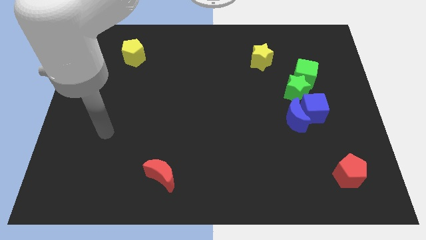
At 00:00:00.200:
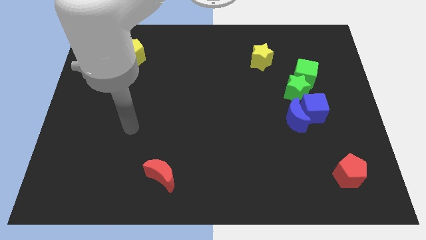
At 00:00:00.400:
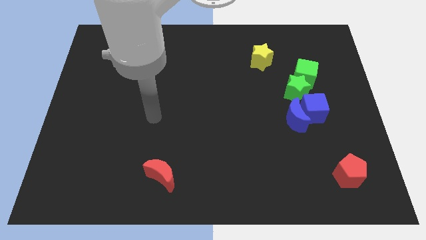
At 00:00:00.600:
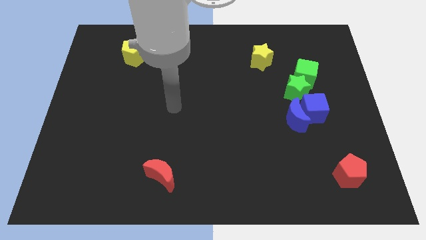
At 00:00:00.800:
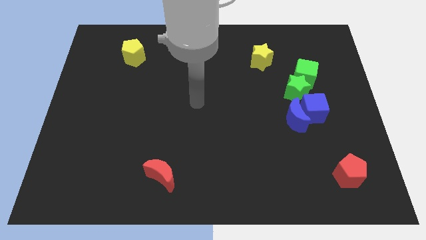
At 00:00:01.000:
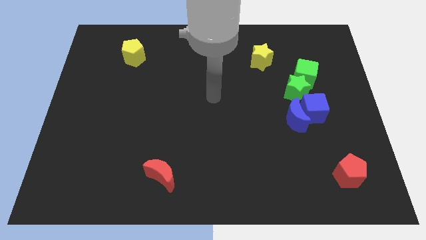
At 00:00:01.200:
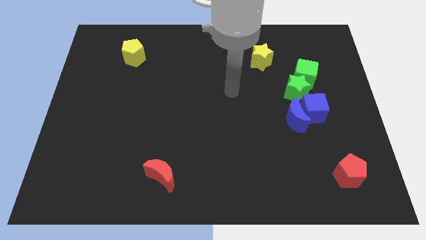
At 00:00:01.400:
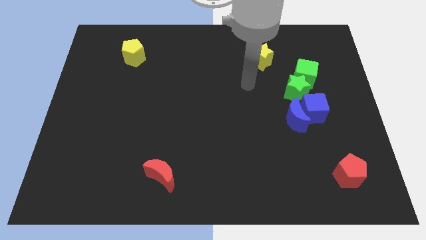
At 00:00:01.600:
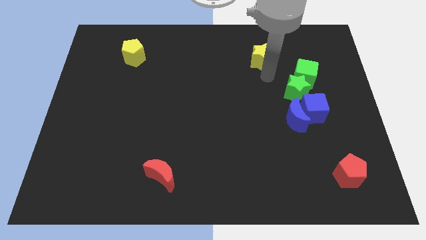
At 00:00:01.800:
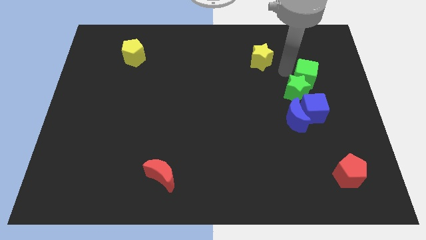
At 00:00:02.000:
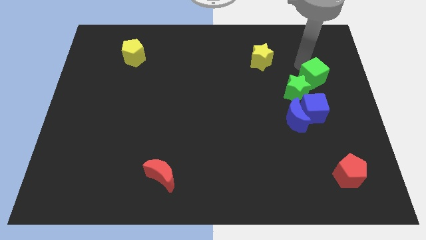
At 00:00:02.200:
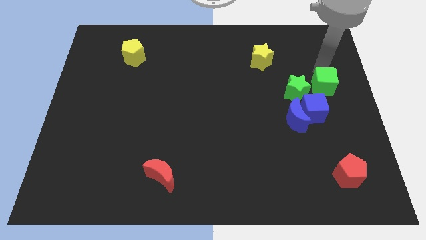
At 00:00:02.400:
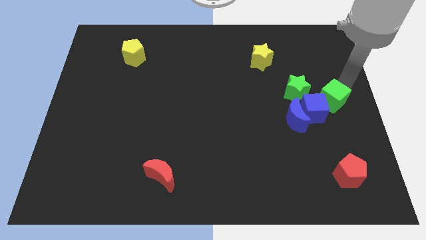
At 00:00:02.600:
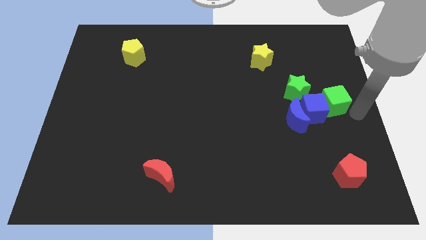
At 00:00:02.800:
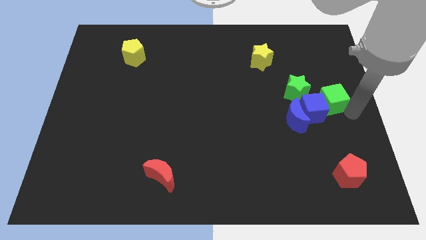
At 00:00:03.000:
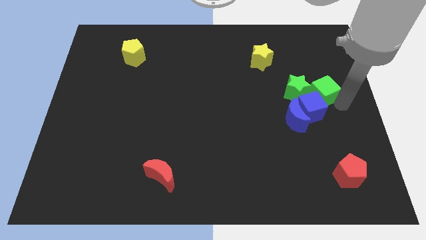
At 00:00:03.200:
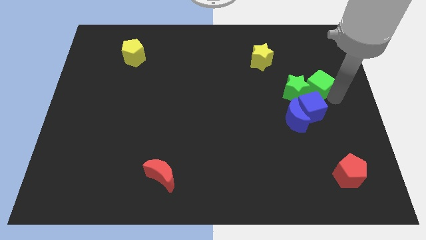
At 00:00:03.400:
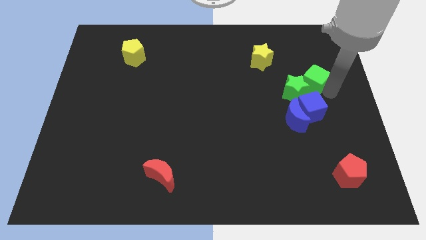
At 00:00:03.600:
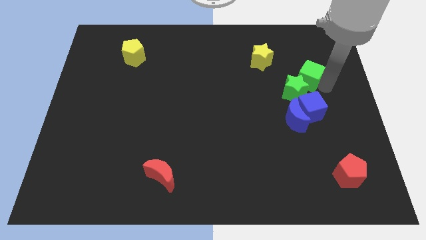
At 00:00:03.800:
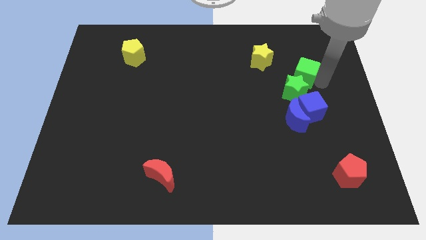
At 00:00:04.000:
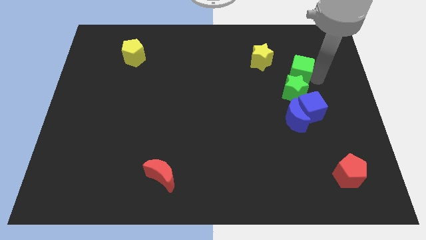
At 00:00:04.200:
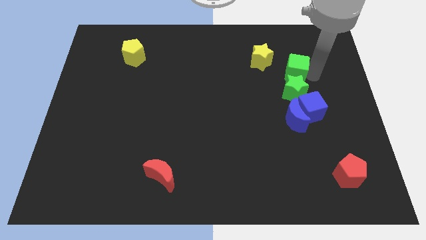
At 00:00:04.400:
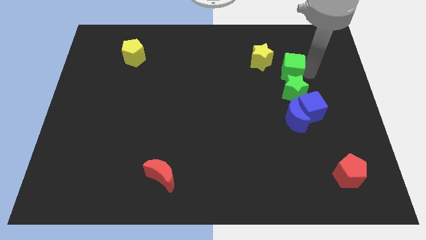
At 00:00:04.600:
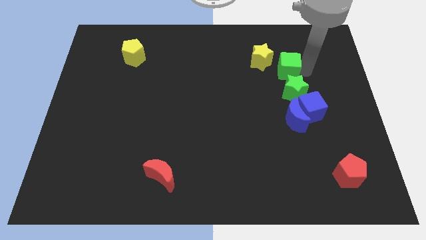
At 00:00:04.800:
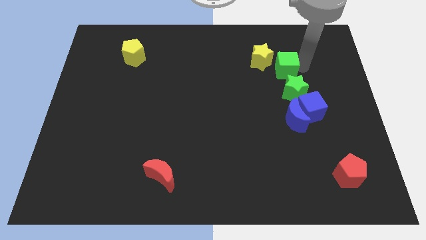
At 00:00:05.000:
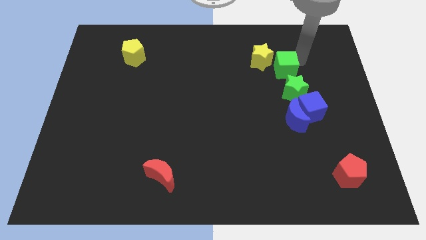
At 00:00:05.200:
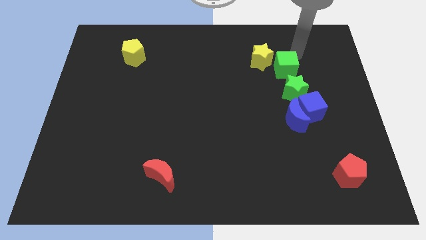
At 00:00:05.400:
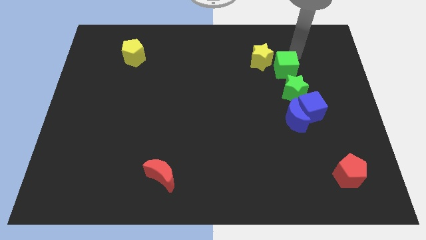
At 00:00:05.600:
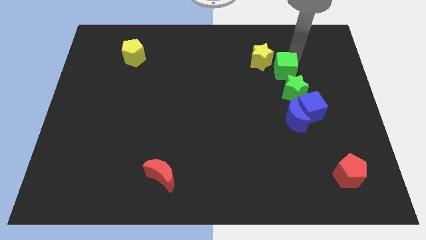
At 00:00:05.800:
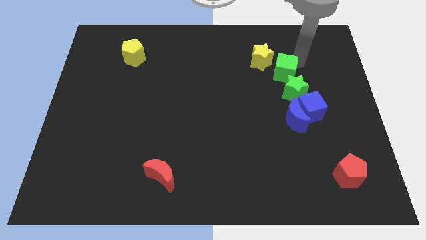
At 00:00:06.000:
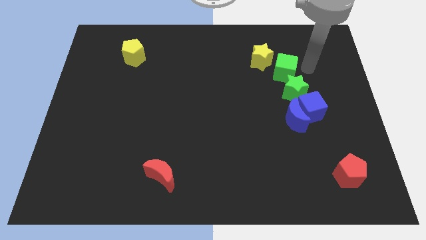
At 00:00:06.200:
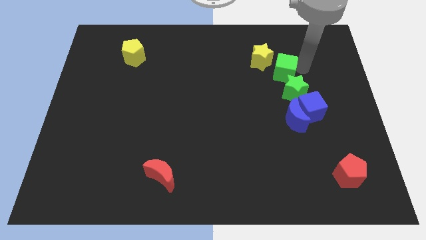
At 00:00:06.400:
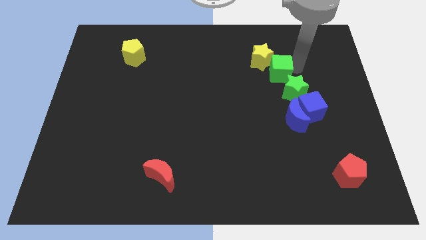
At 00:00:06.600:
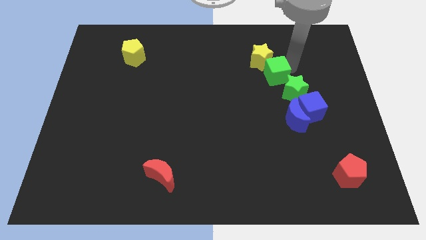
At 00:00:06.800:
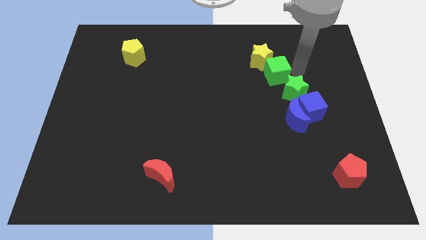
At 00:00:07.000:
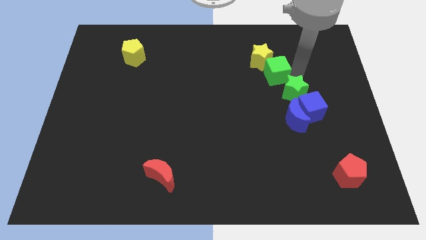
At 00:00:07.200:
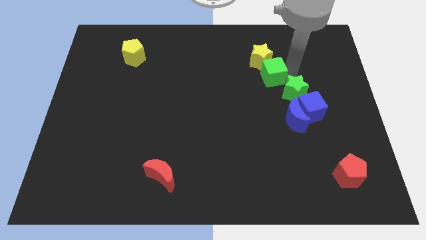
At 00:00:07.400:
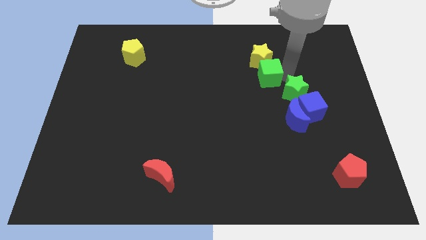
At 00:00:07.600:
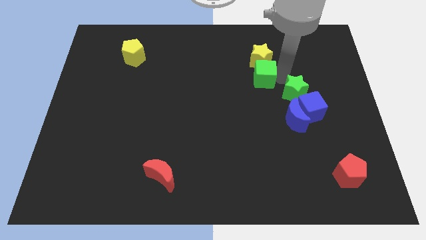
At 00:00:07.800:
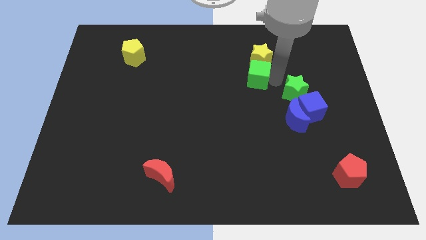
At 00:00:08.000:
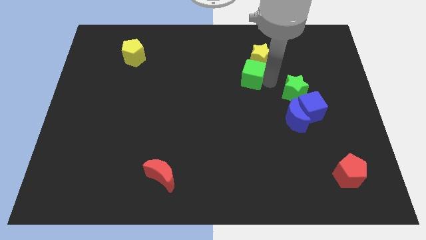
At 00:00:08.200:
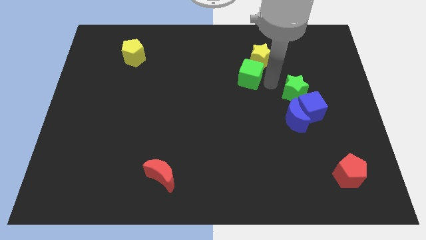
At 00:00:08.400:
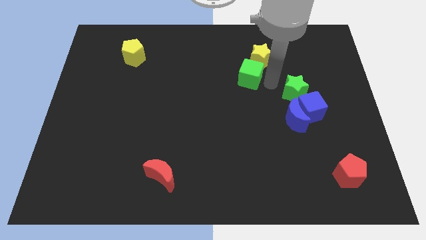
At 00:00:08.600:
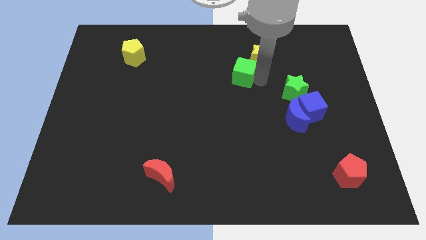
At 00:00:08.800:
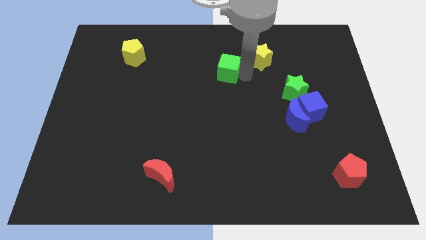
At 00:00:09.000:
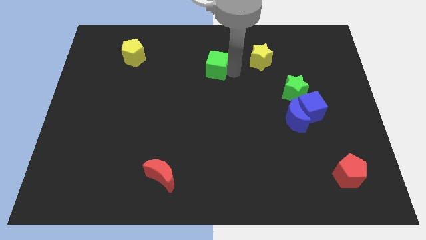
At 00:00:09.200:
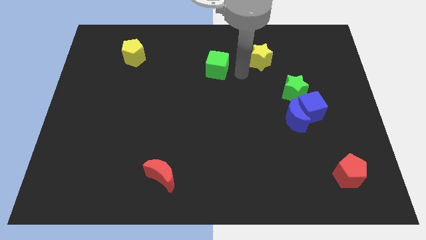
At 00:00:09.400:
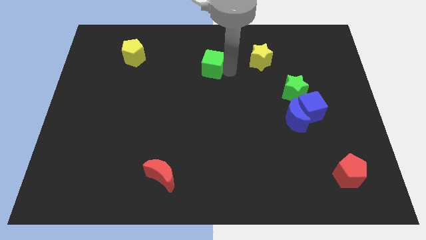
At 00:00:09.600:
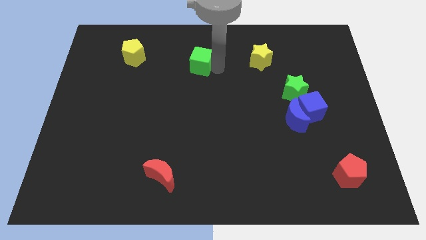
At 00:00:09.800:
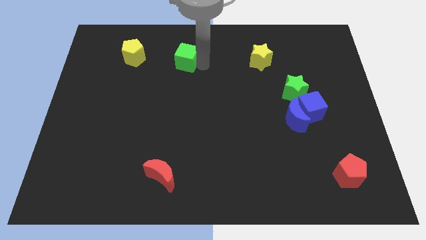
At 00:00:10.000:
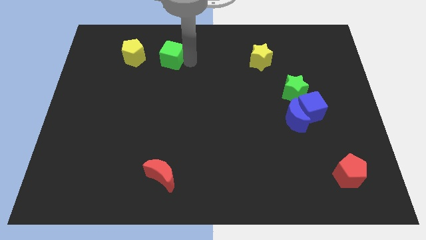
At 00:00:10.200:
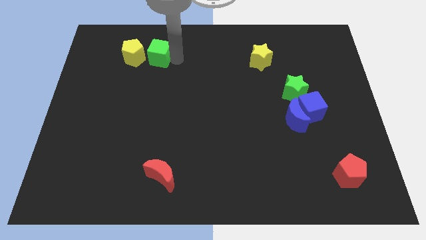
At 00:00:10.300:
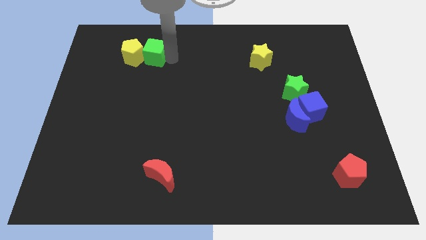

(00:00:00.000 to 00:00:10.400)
slide the green cube to the yellow pentagon

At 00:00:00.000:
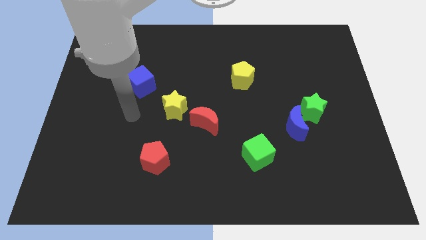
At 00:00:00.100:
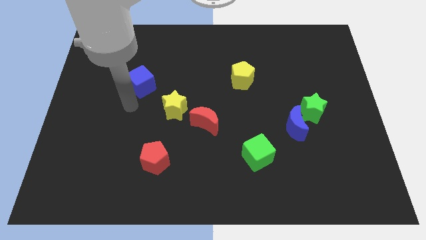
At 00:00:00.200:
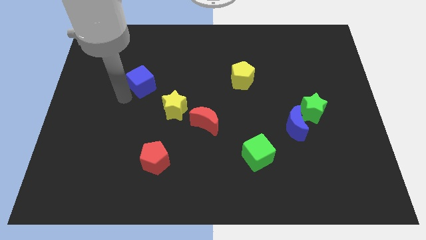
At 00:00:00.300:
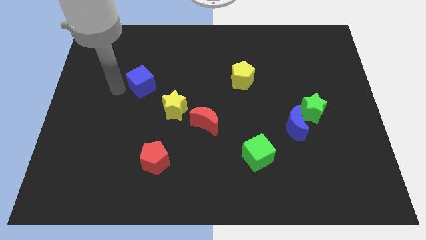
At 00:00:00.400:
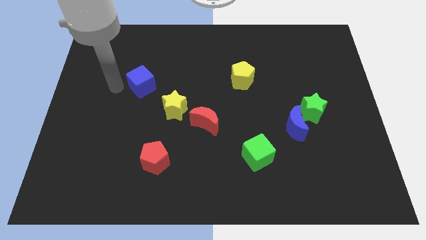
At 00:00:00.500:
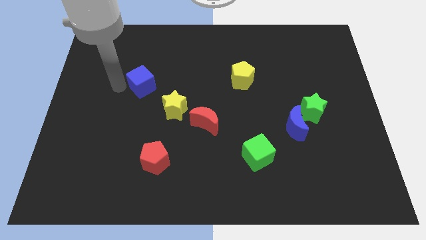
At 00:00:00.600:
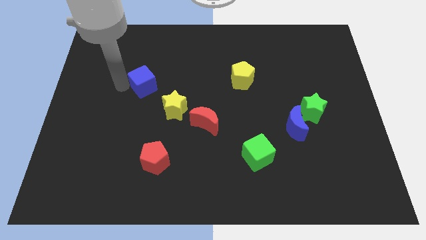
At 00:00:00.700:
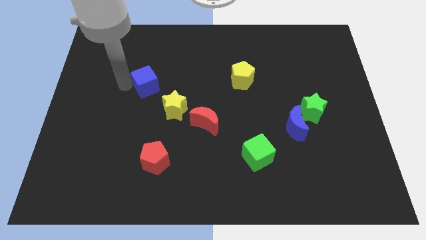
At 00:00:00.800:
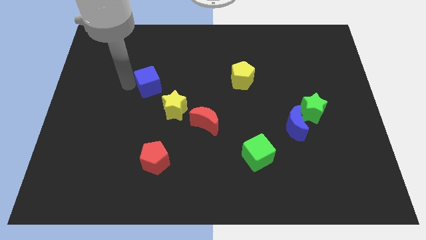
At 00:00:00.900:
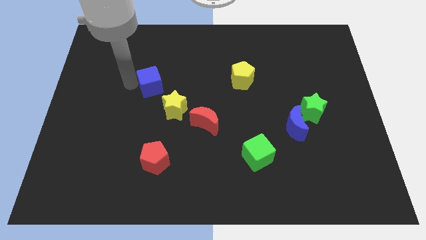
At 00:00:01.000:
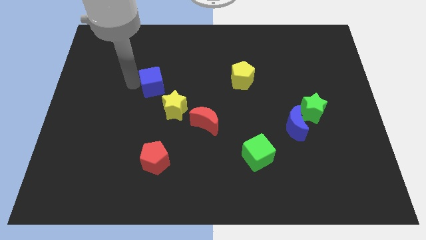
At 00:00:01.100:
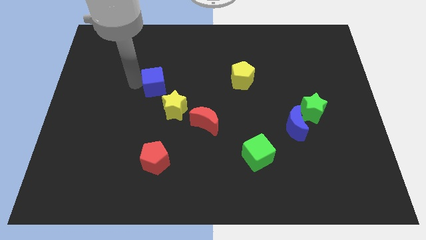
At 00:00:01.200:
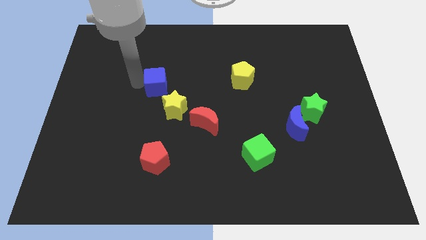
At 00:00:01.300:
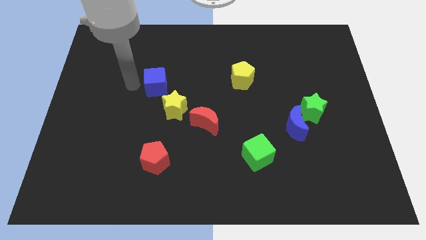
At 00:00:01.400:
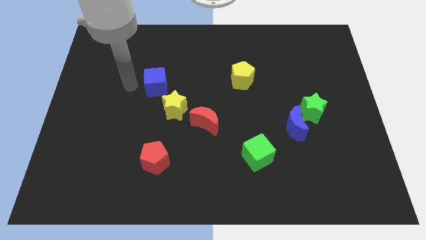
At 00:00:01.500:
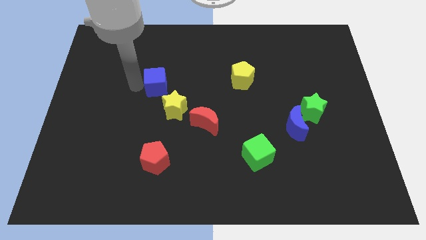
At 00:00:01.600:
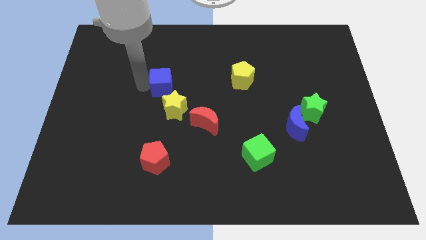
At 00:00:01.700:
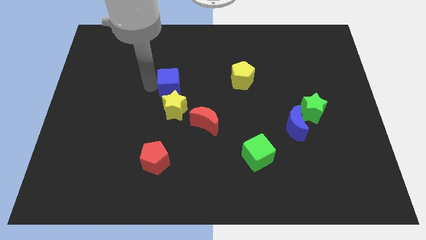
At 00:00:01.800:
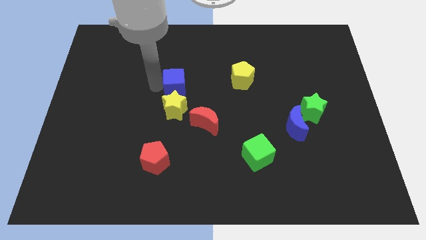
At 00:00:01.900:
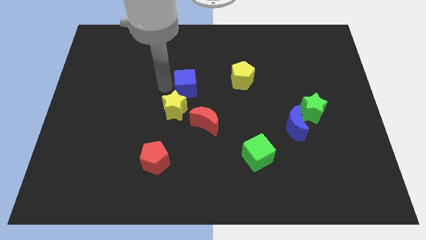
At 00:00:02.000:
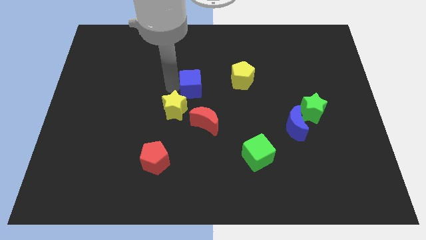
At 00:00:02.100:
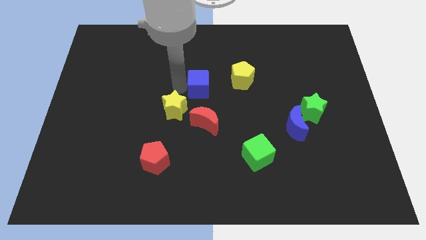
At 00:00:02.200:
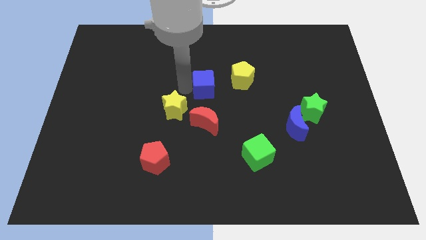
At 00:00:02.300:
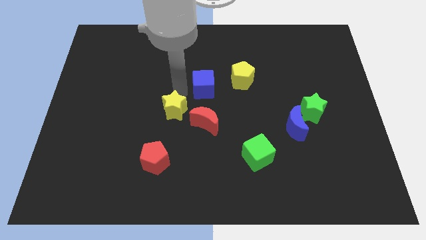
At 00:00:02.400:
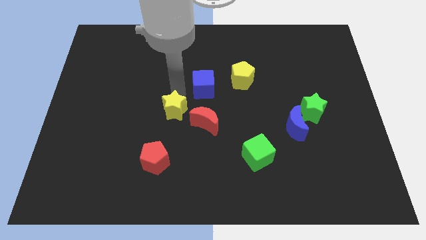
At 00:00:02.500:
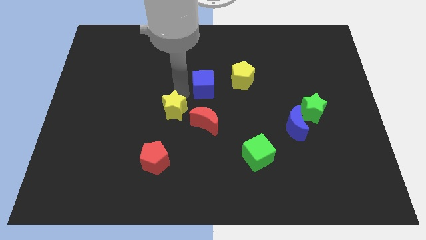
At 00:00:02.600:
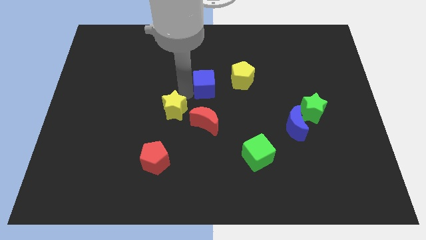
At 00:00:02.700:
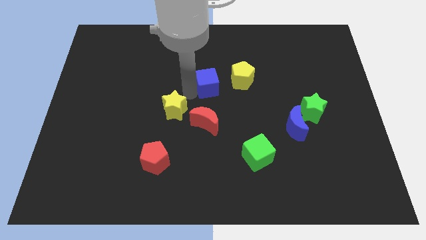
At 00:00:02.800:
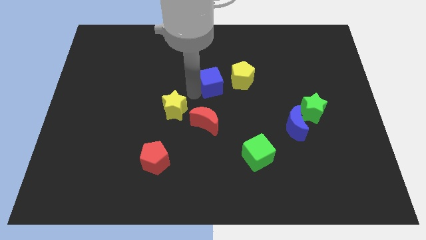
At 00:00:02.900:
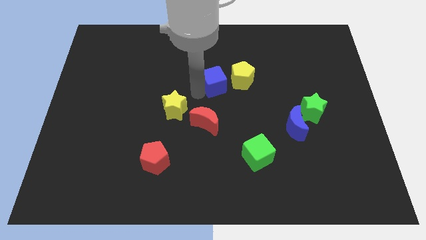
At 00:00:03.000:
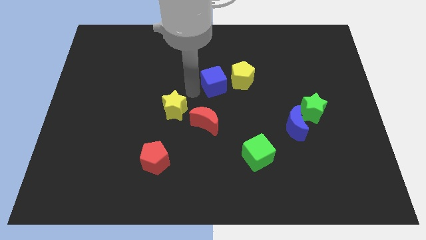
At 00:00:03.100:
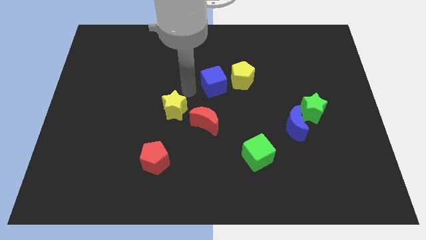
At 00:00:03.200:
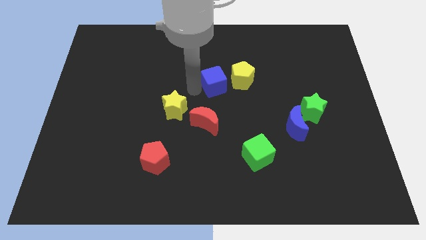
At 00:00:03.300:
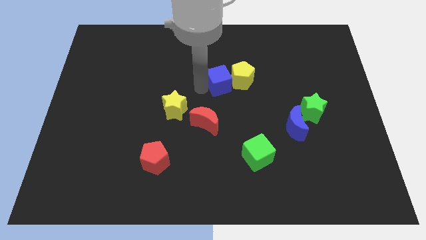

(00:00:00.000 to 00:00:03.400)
slide the blue cube to the yellow pentagon
